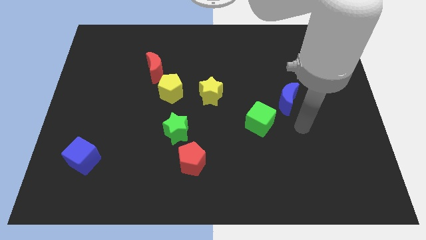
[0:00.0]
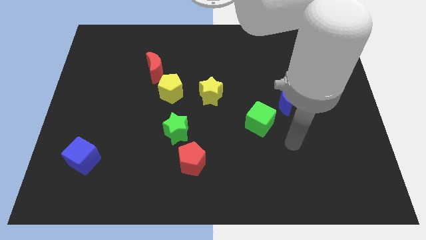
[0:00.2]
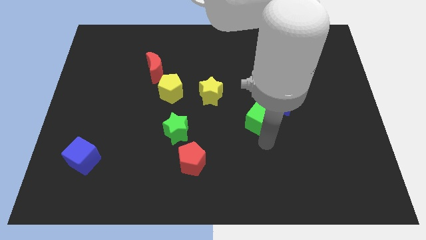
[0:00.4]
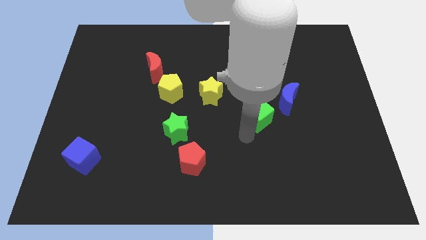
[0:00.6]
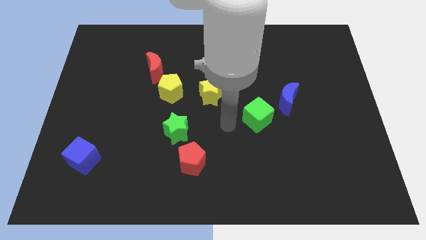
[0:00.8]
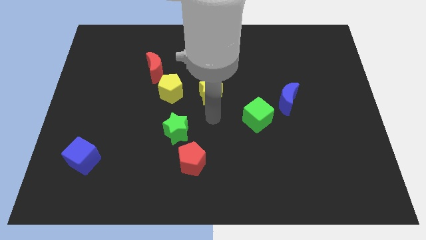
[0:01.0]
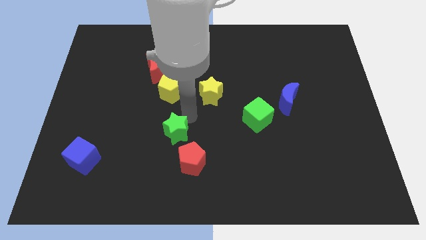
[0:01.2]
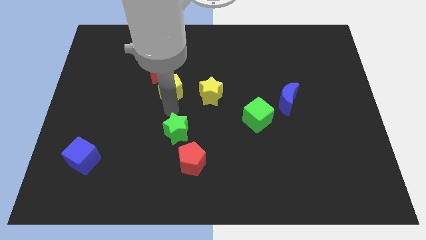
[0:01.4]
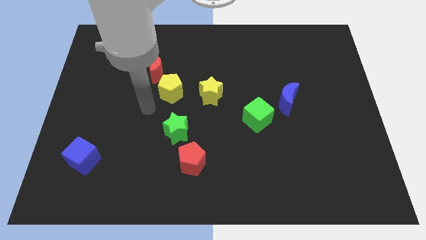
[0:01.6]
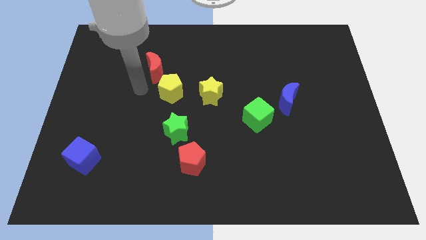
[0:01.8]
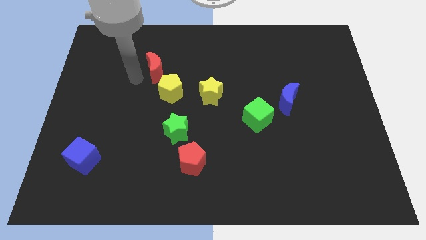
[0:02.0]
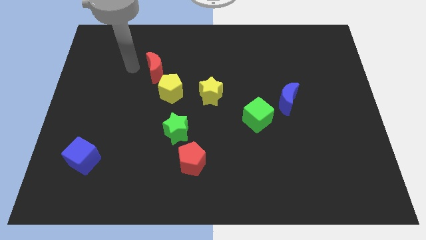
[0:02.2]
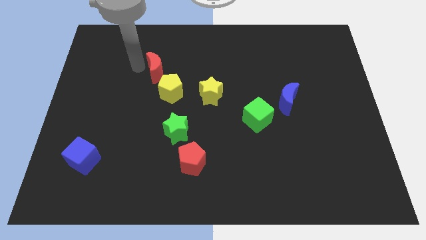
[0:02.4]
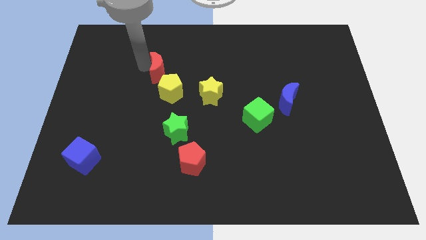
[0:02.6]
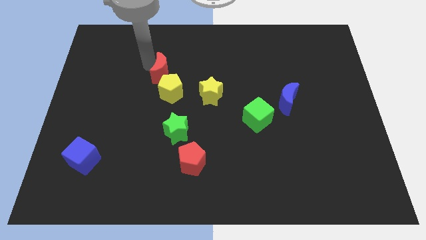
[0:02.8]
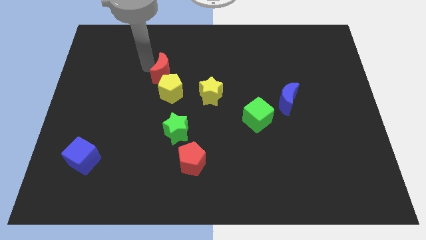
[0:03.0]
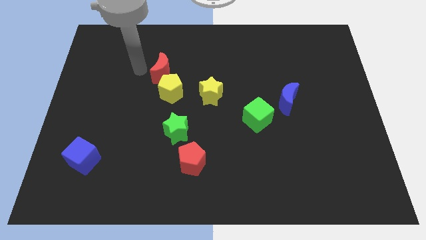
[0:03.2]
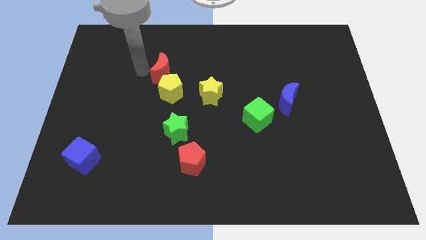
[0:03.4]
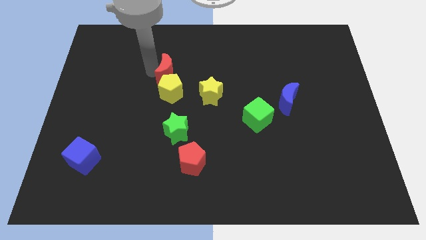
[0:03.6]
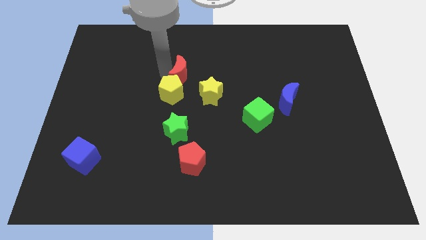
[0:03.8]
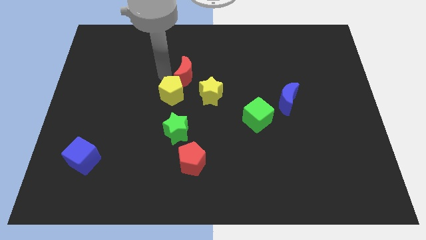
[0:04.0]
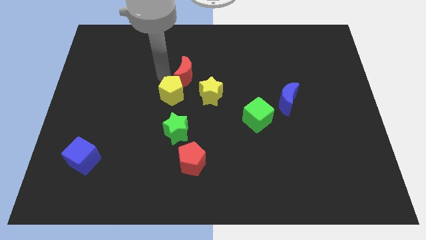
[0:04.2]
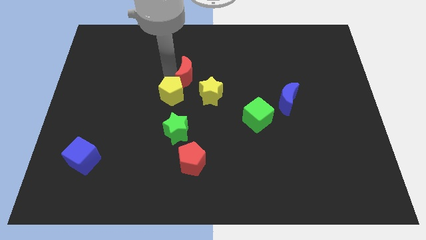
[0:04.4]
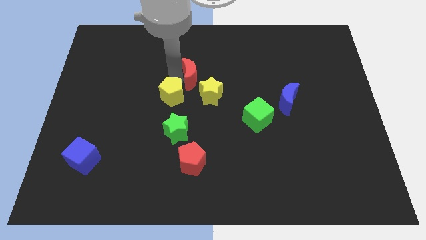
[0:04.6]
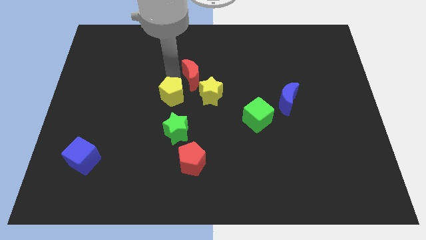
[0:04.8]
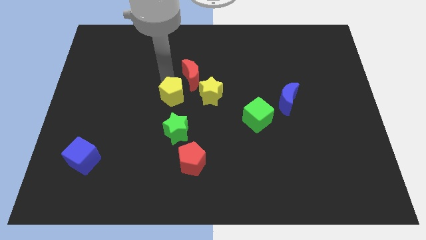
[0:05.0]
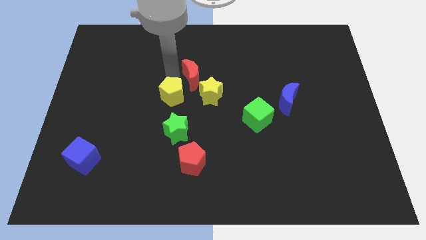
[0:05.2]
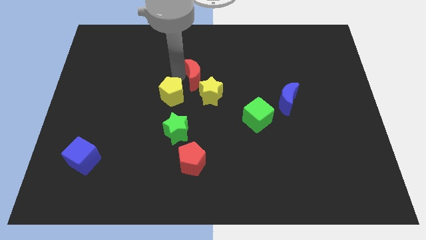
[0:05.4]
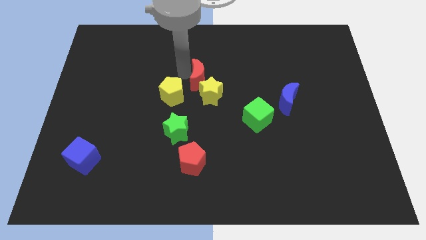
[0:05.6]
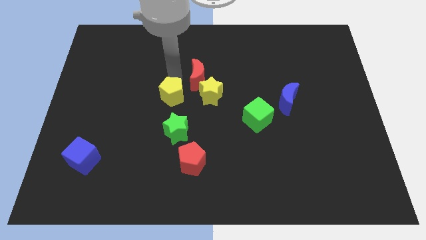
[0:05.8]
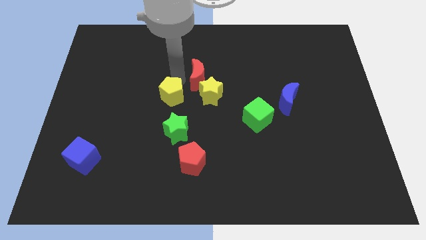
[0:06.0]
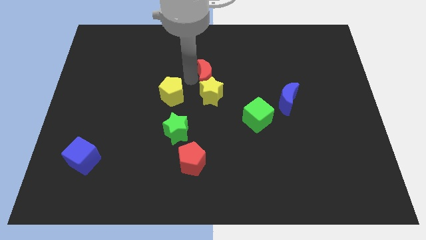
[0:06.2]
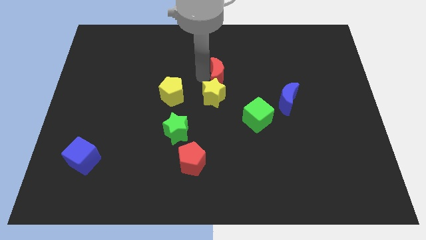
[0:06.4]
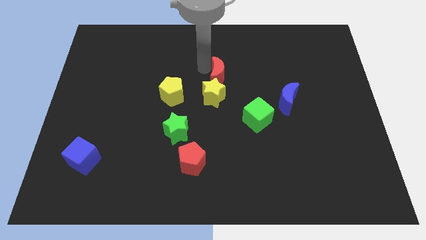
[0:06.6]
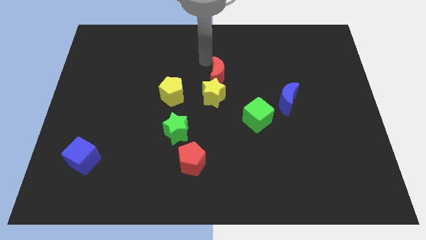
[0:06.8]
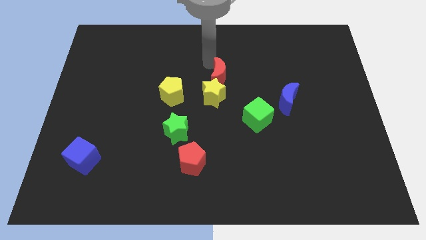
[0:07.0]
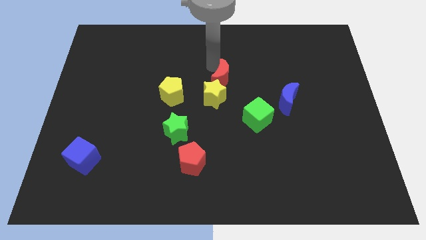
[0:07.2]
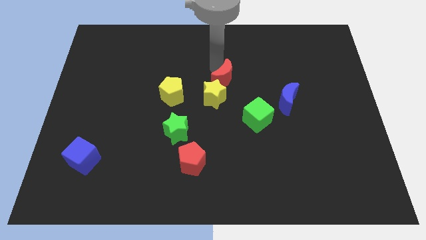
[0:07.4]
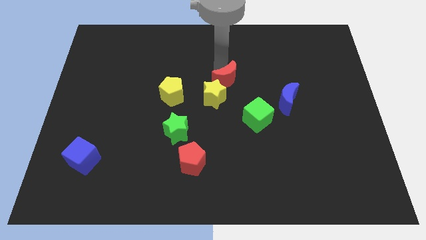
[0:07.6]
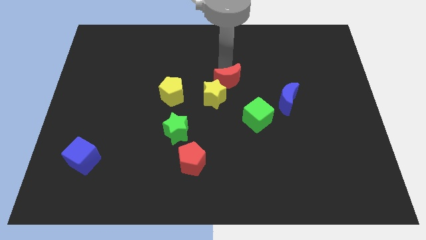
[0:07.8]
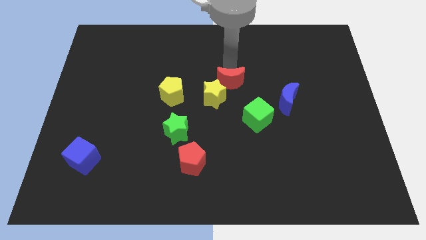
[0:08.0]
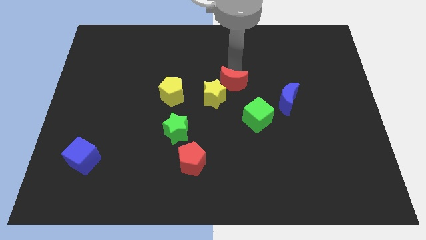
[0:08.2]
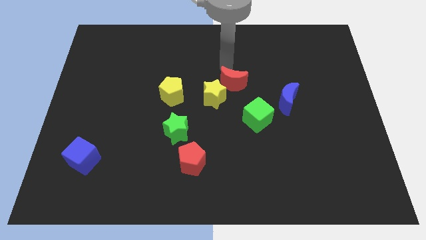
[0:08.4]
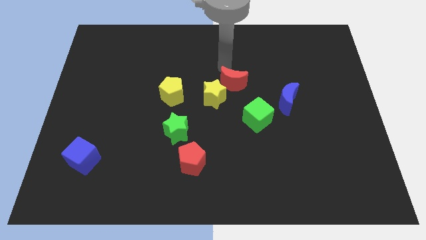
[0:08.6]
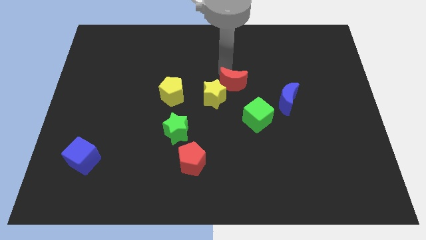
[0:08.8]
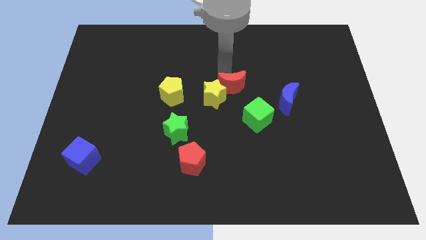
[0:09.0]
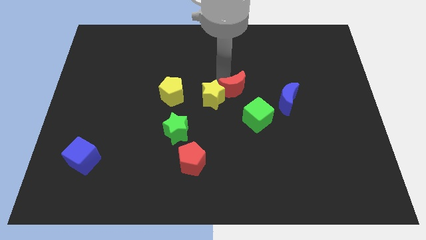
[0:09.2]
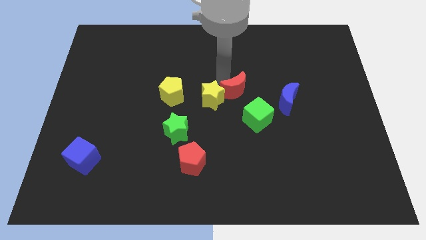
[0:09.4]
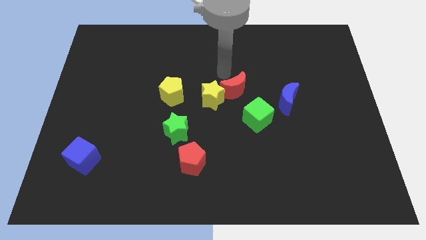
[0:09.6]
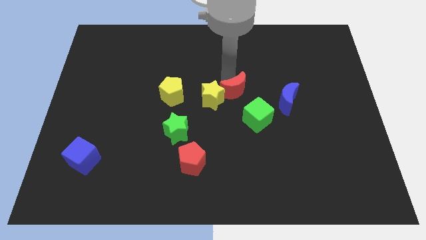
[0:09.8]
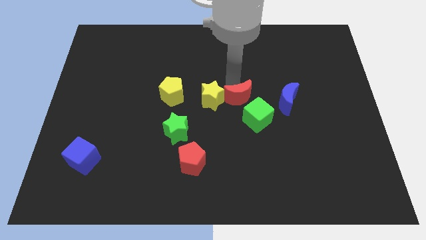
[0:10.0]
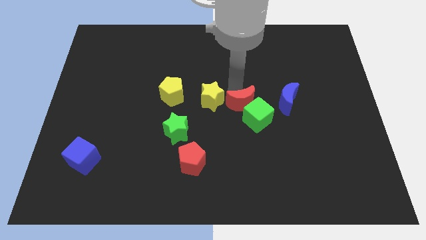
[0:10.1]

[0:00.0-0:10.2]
slide the red moon next to the green cube

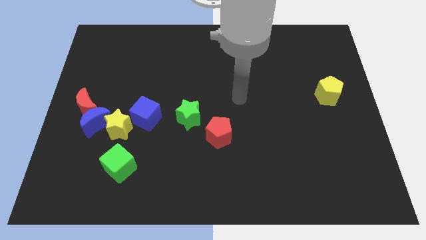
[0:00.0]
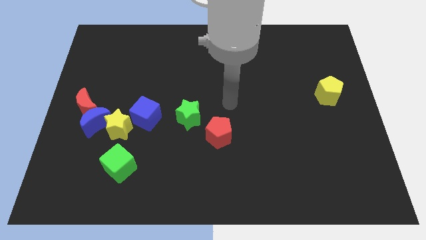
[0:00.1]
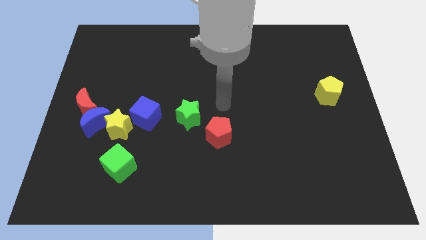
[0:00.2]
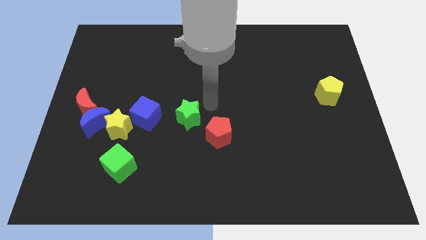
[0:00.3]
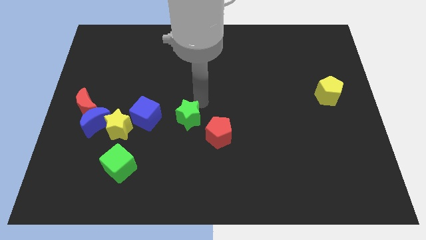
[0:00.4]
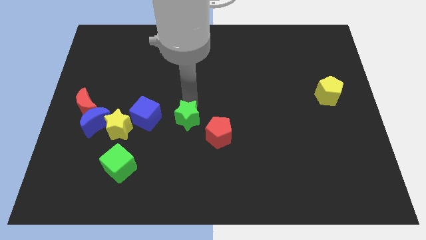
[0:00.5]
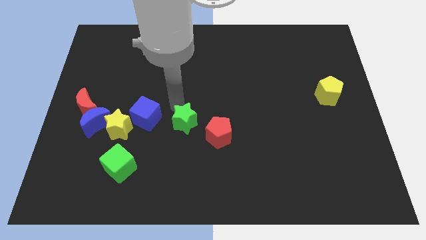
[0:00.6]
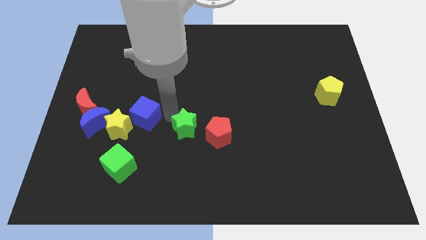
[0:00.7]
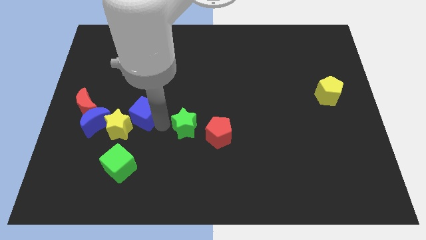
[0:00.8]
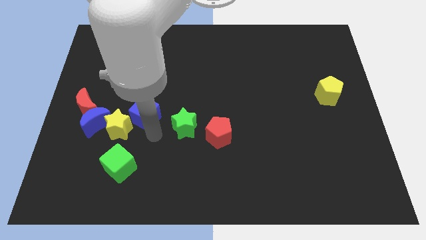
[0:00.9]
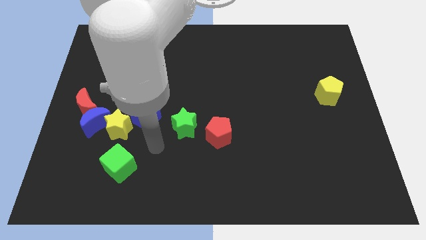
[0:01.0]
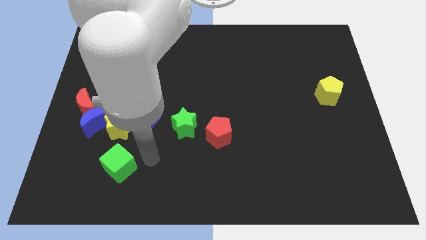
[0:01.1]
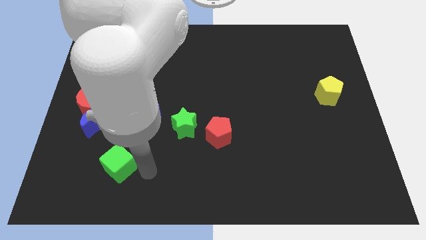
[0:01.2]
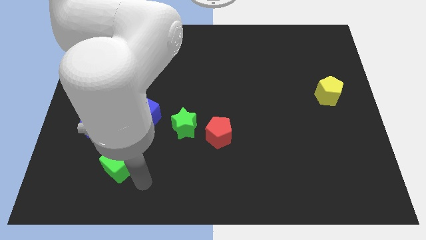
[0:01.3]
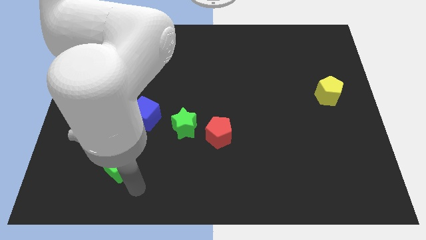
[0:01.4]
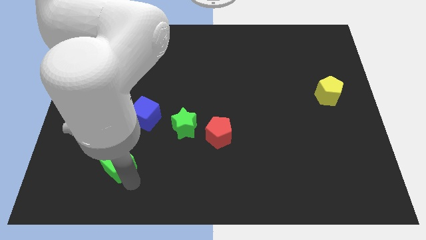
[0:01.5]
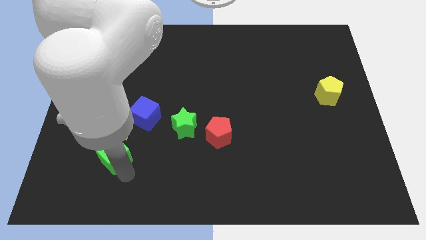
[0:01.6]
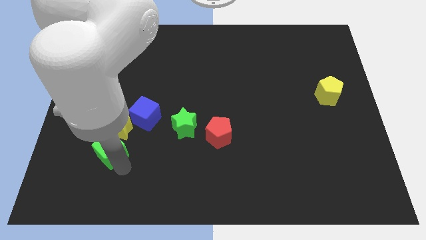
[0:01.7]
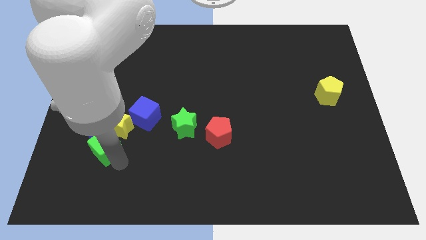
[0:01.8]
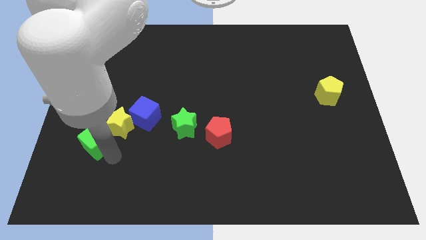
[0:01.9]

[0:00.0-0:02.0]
slide the green cube next to the blue moon
